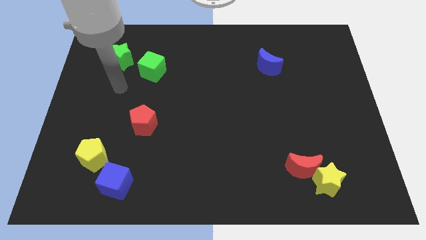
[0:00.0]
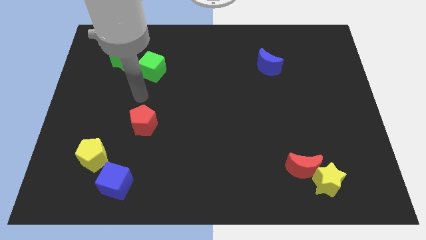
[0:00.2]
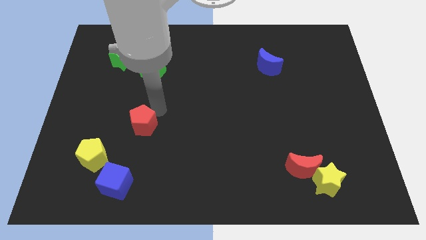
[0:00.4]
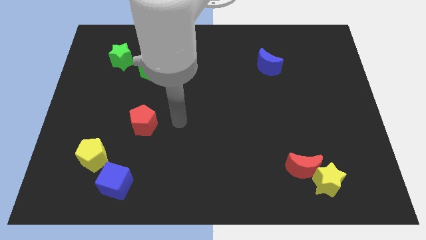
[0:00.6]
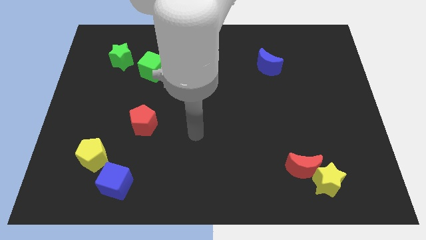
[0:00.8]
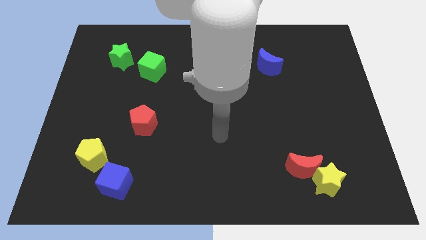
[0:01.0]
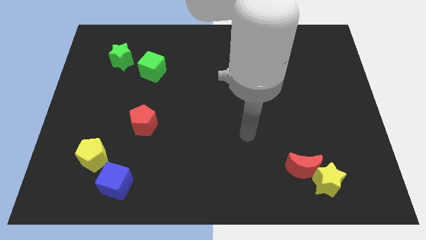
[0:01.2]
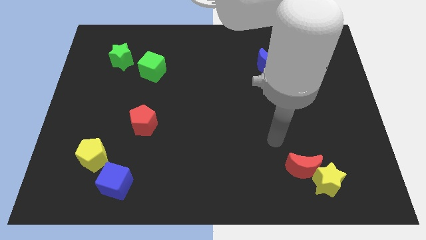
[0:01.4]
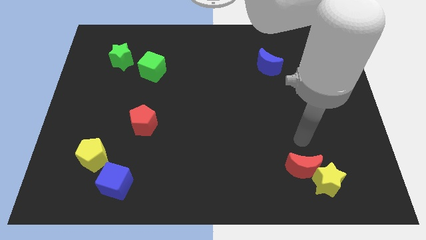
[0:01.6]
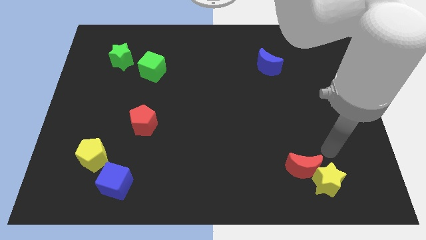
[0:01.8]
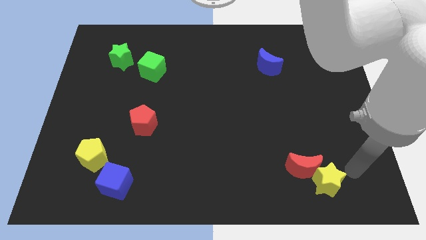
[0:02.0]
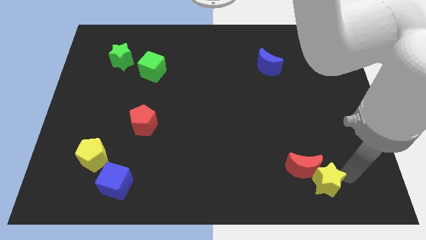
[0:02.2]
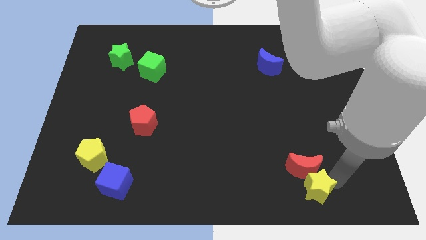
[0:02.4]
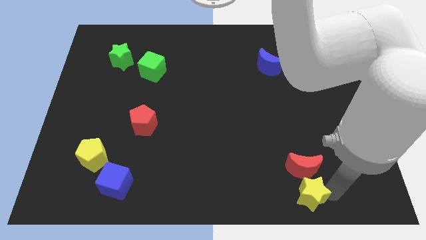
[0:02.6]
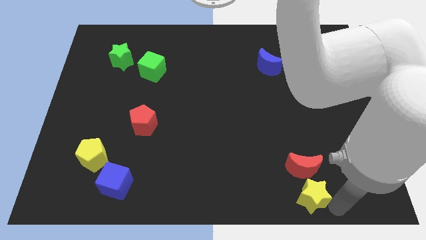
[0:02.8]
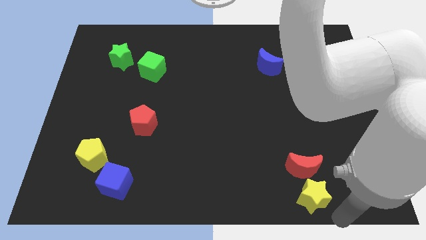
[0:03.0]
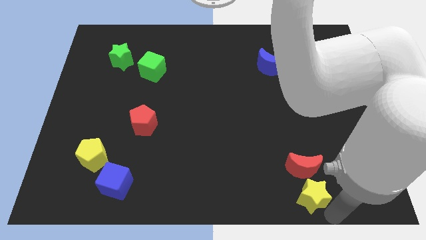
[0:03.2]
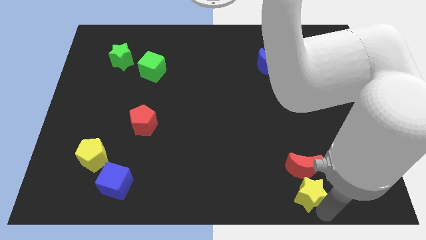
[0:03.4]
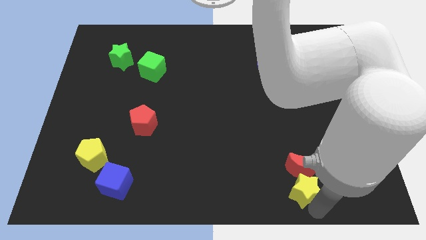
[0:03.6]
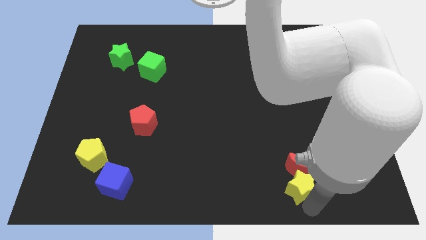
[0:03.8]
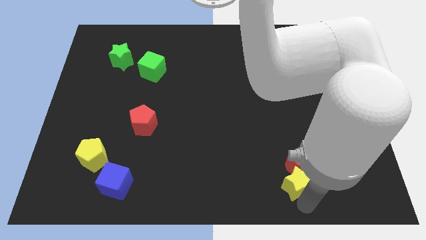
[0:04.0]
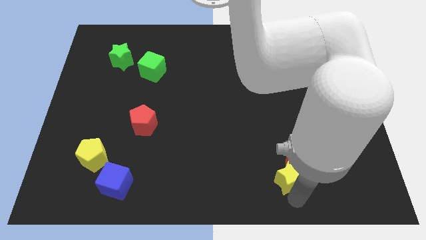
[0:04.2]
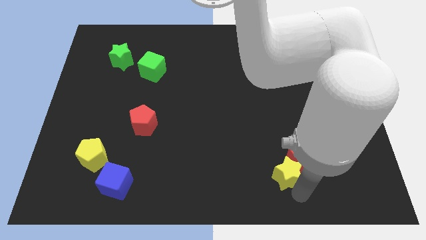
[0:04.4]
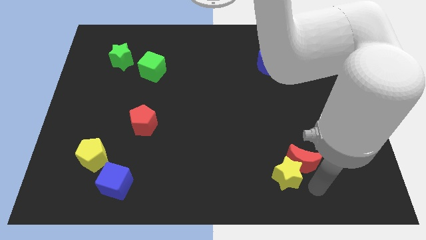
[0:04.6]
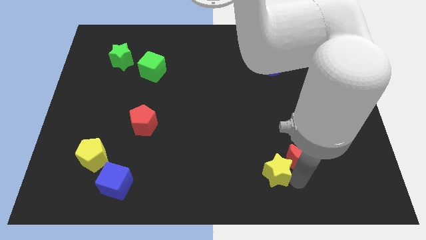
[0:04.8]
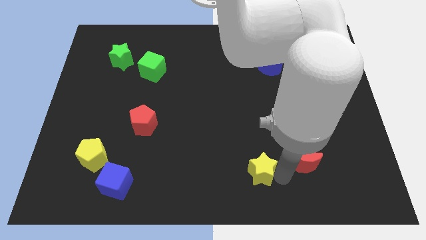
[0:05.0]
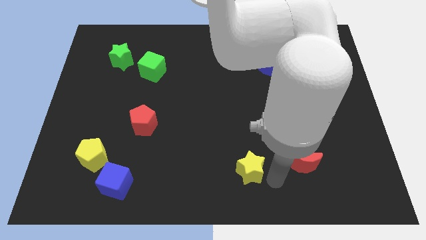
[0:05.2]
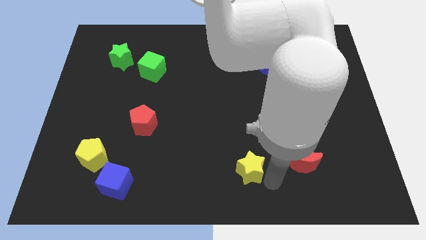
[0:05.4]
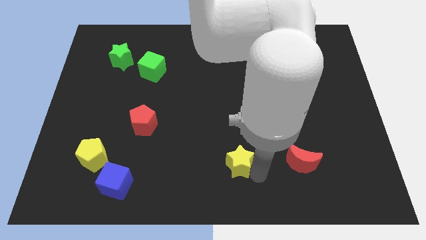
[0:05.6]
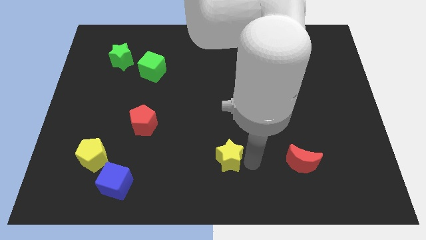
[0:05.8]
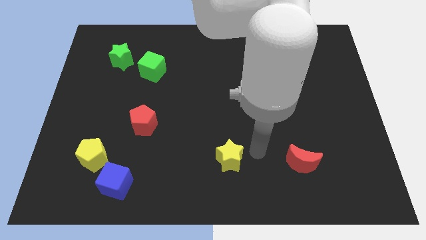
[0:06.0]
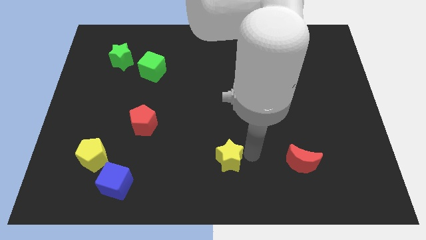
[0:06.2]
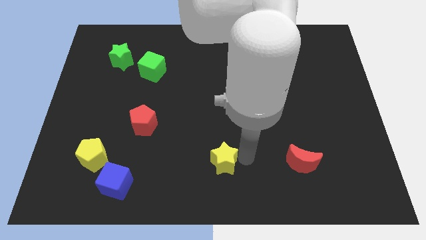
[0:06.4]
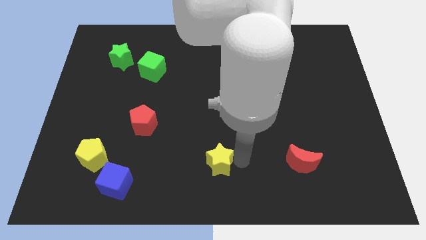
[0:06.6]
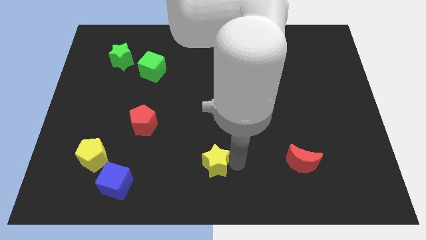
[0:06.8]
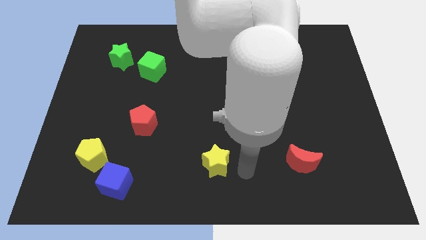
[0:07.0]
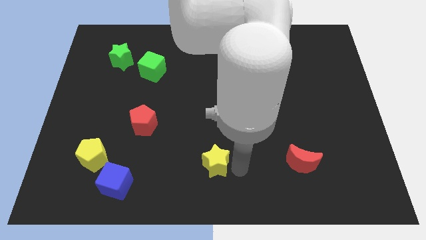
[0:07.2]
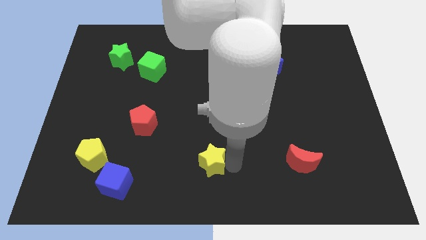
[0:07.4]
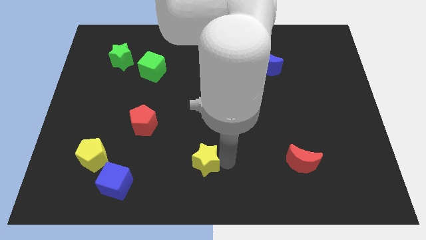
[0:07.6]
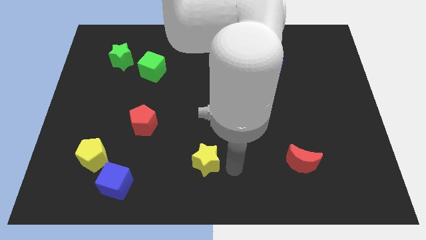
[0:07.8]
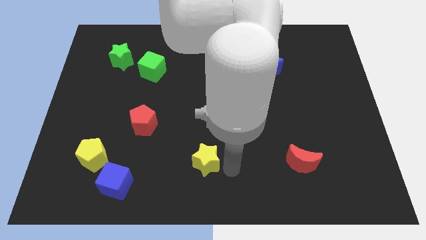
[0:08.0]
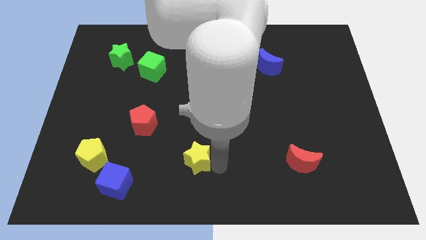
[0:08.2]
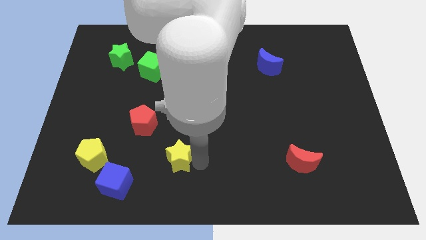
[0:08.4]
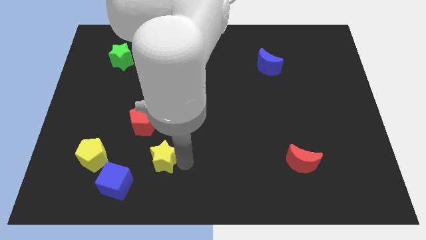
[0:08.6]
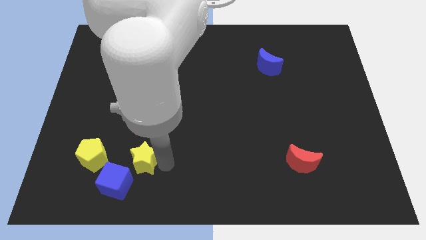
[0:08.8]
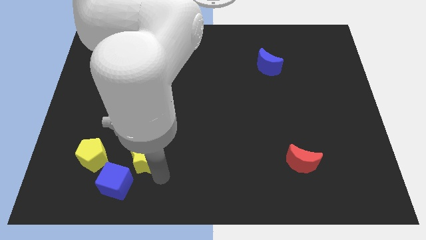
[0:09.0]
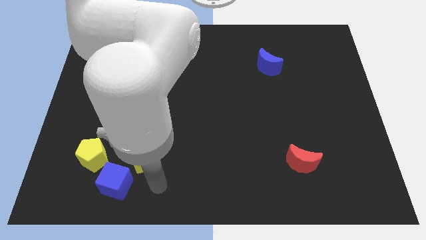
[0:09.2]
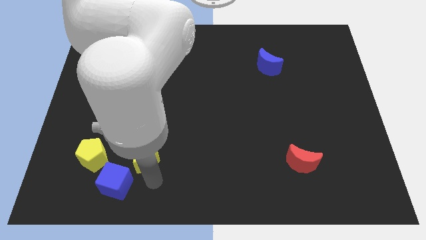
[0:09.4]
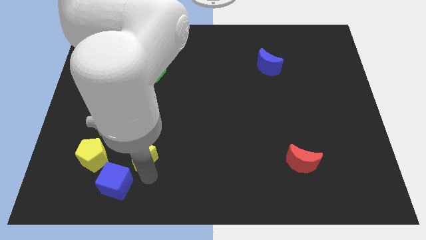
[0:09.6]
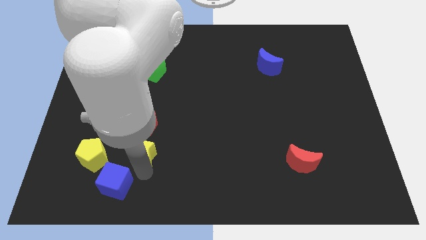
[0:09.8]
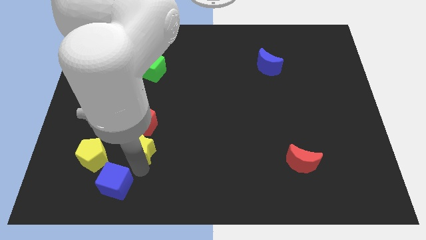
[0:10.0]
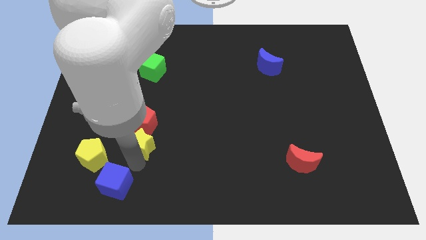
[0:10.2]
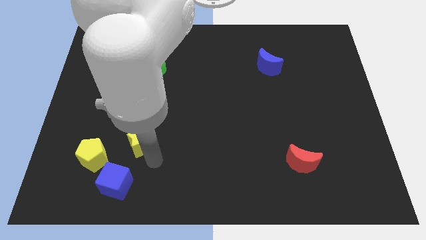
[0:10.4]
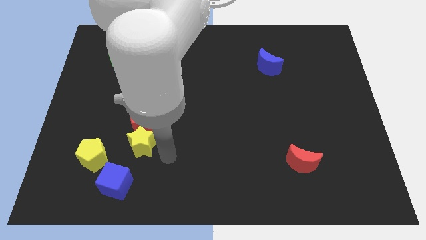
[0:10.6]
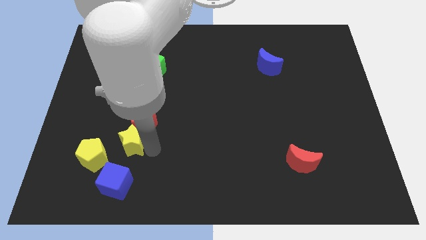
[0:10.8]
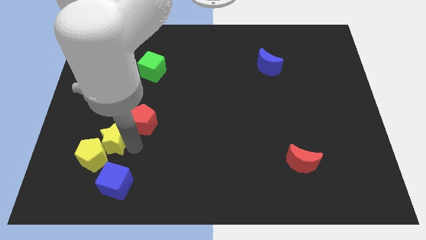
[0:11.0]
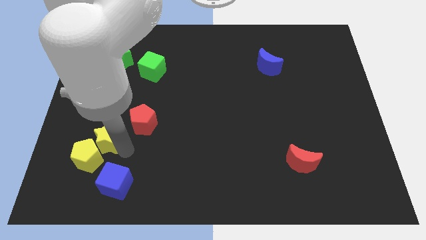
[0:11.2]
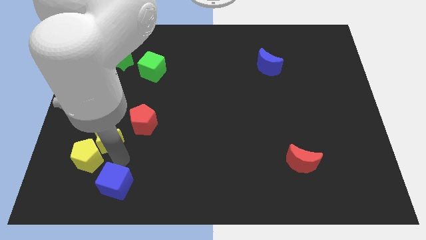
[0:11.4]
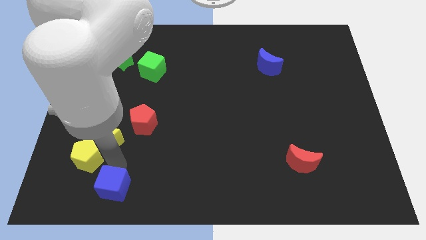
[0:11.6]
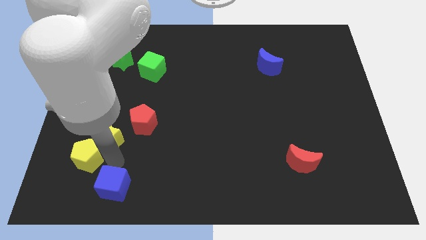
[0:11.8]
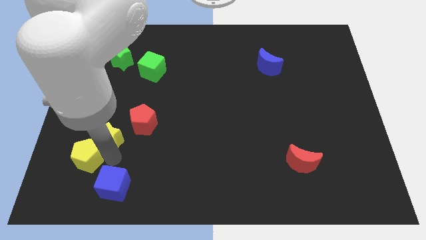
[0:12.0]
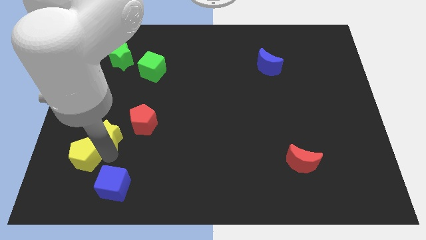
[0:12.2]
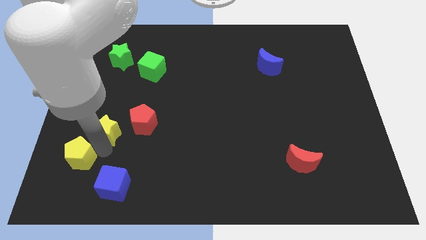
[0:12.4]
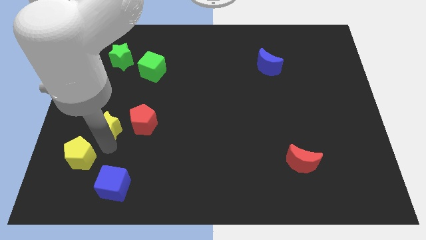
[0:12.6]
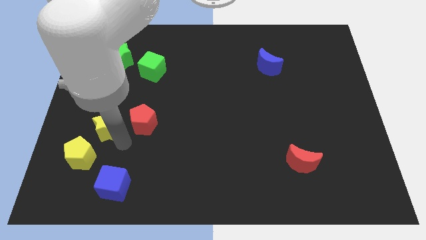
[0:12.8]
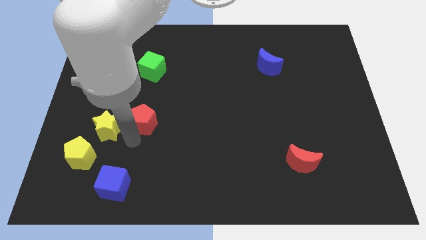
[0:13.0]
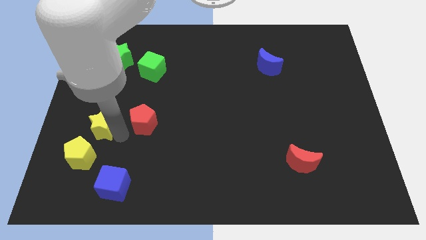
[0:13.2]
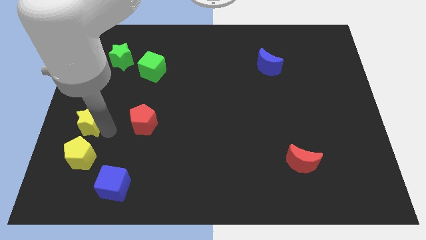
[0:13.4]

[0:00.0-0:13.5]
move the yellow star to the left side

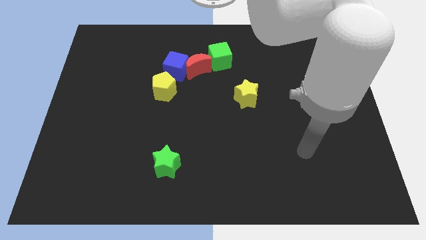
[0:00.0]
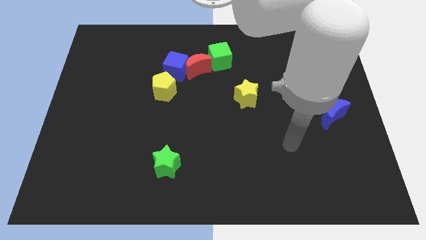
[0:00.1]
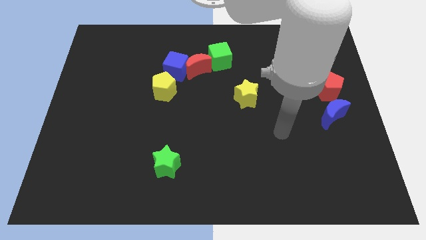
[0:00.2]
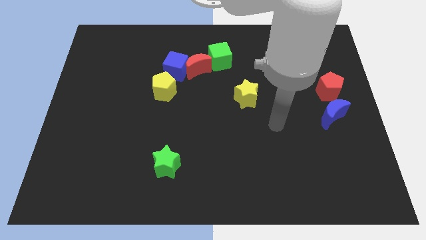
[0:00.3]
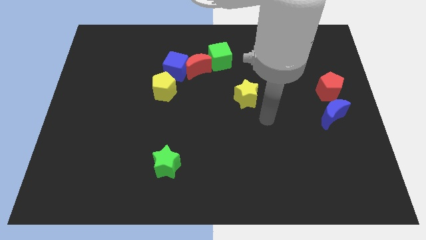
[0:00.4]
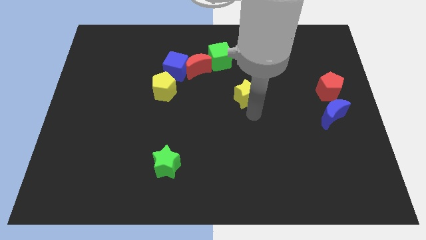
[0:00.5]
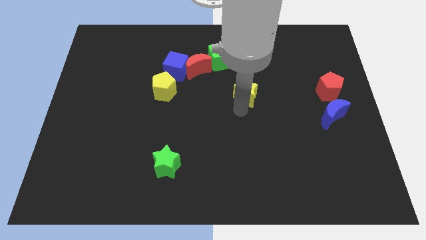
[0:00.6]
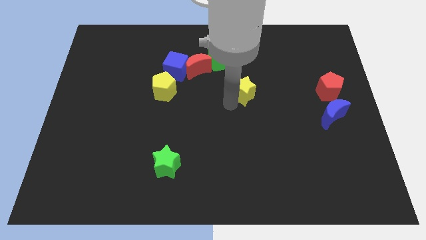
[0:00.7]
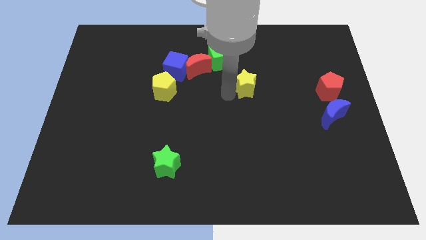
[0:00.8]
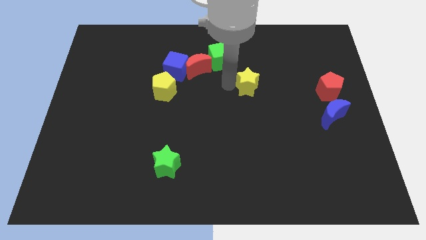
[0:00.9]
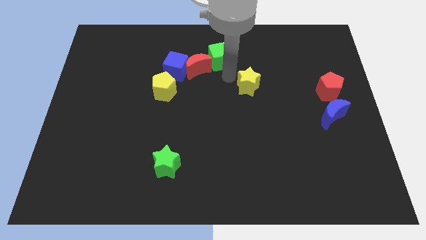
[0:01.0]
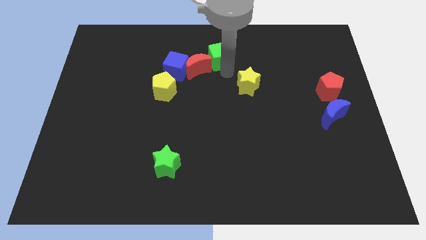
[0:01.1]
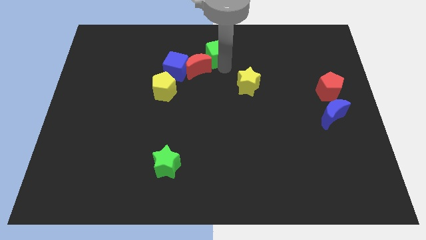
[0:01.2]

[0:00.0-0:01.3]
put the green cube to the towards your base
